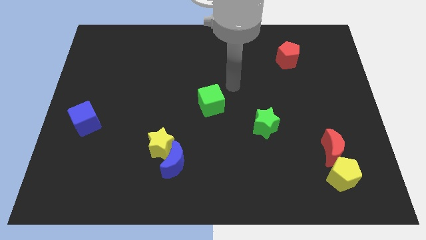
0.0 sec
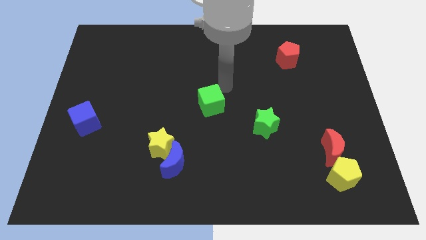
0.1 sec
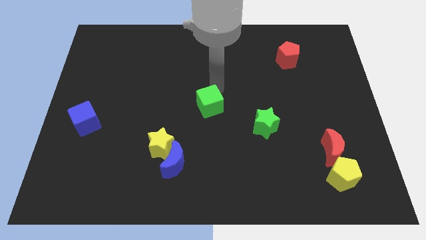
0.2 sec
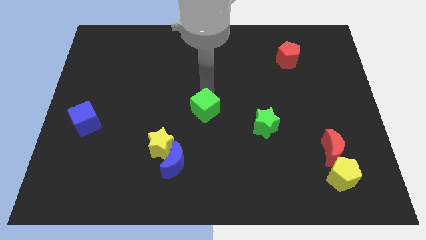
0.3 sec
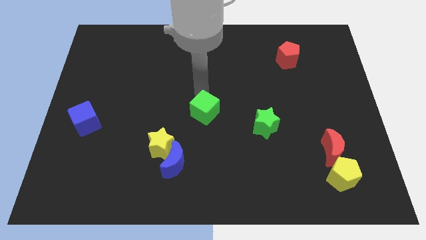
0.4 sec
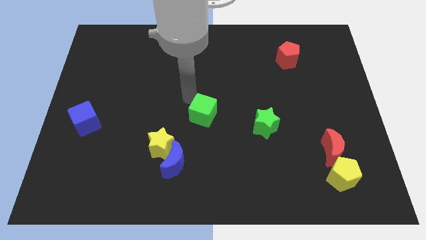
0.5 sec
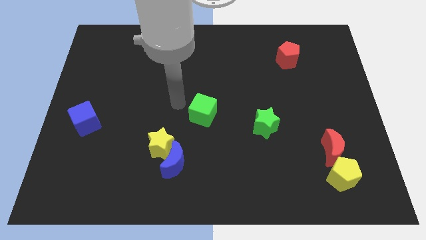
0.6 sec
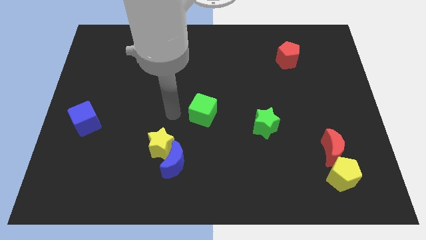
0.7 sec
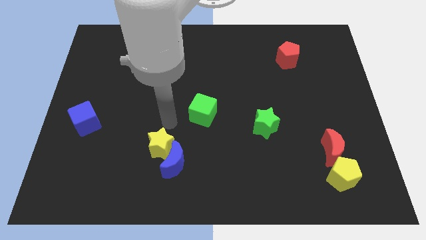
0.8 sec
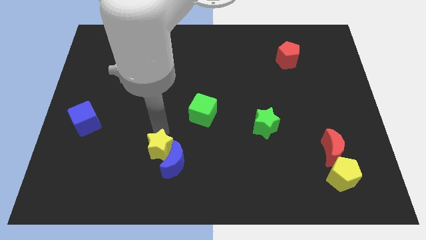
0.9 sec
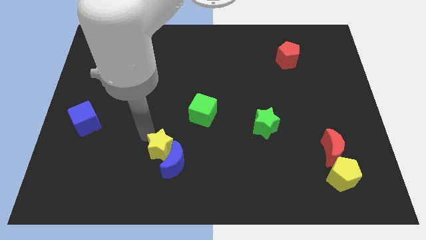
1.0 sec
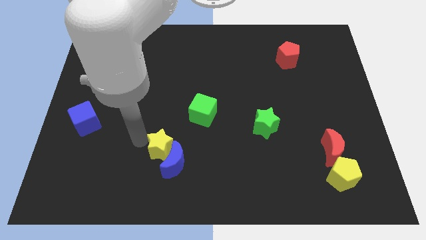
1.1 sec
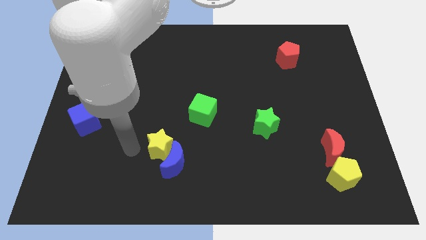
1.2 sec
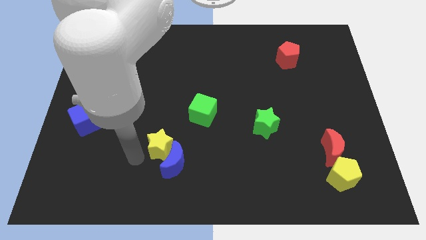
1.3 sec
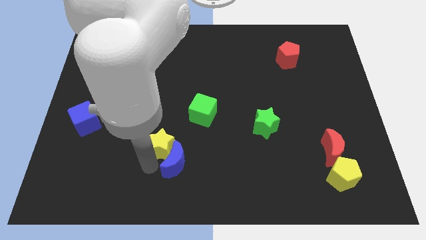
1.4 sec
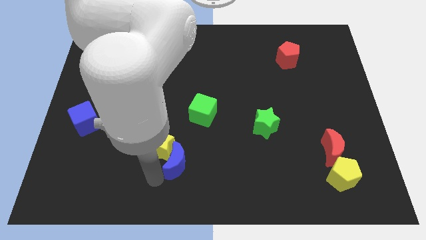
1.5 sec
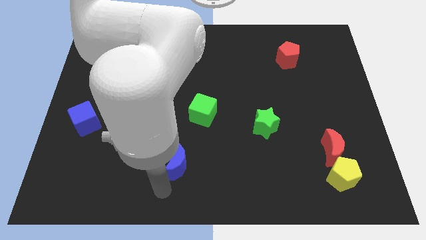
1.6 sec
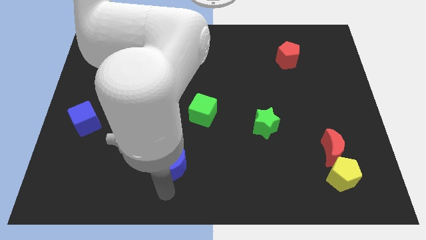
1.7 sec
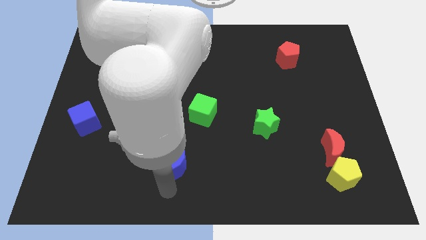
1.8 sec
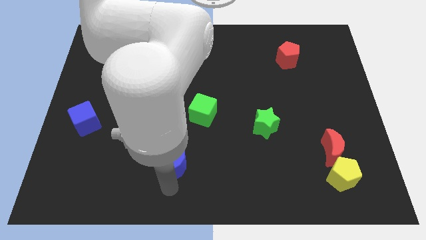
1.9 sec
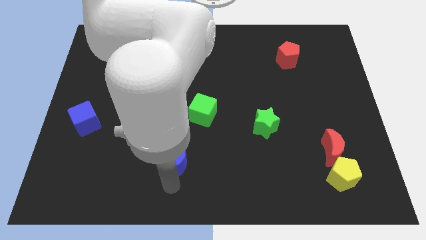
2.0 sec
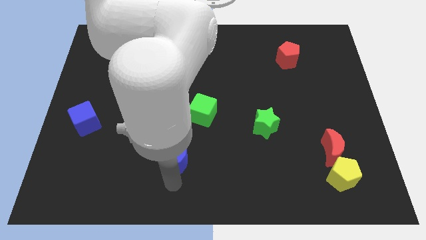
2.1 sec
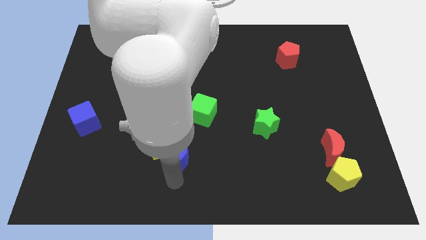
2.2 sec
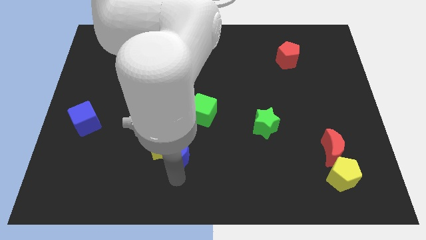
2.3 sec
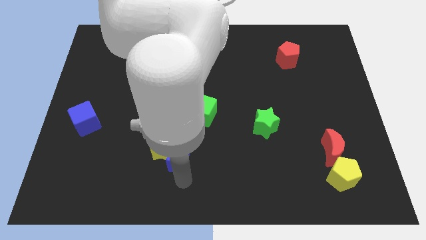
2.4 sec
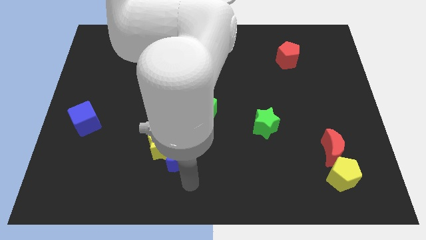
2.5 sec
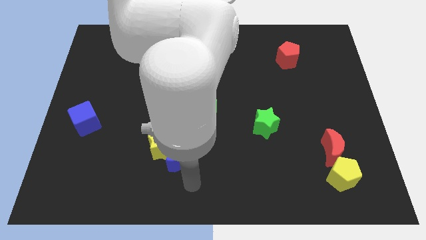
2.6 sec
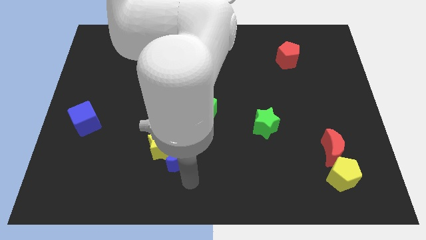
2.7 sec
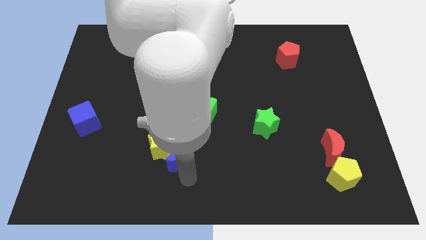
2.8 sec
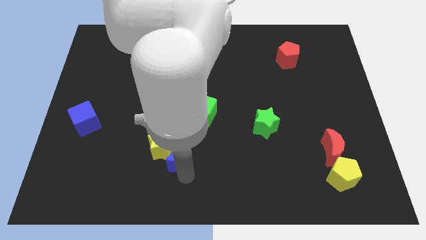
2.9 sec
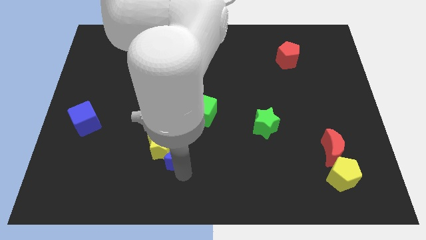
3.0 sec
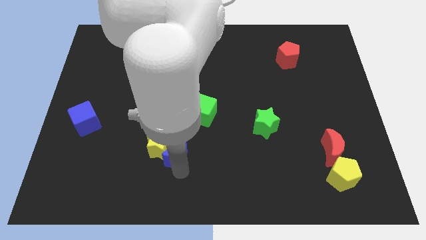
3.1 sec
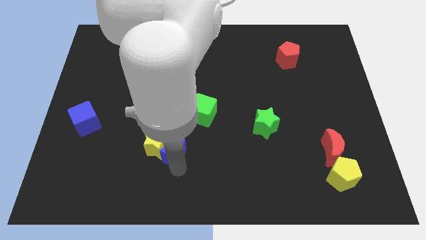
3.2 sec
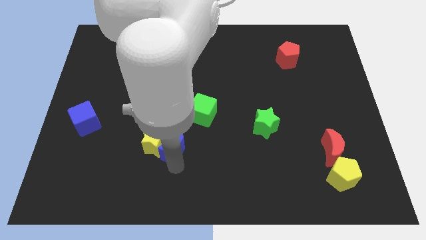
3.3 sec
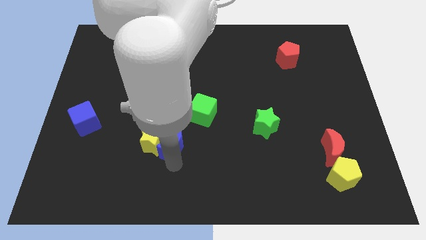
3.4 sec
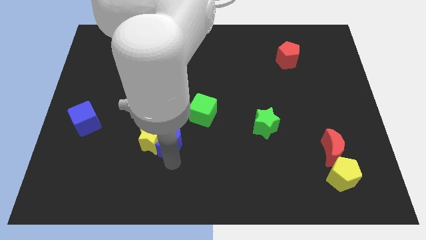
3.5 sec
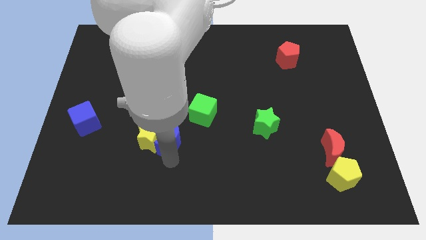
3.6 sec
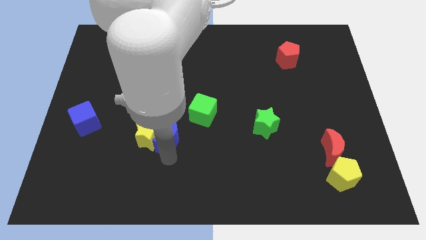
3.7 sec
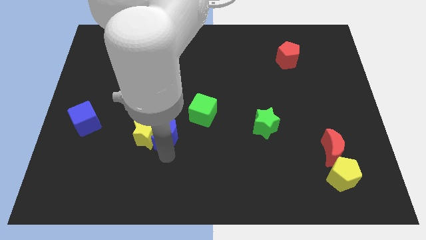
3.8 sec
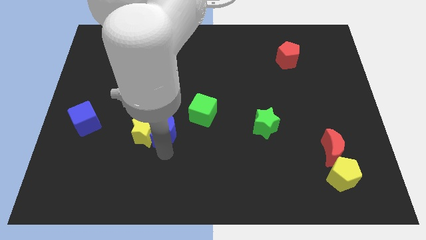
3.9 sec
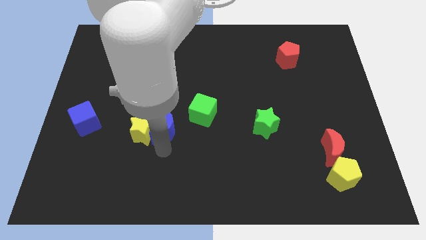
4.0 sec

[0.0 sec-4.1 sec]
slide the blue moon up and left a little bit

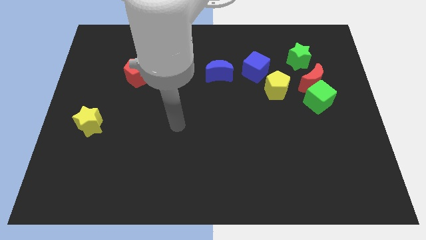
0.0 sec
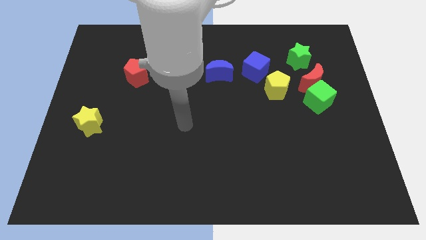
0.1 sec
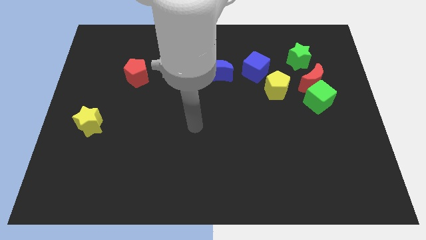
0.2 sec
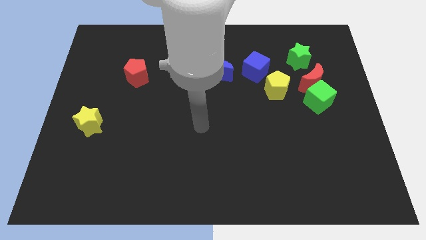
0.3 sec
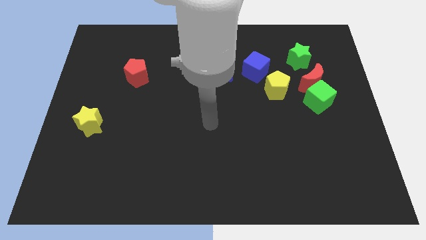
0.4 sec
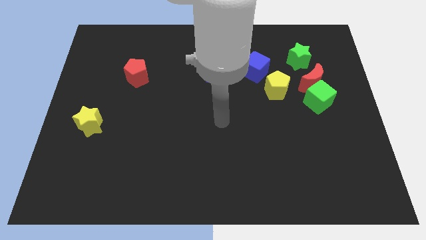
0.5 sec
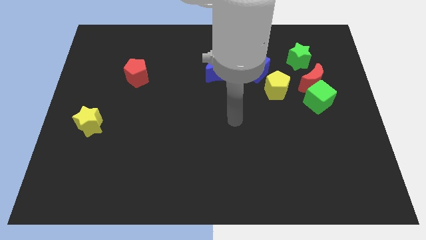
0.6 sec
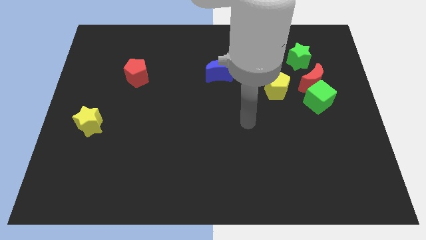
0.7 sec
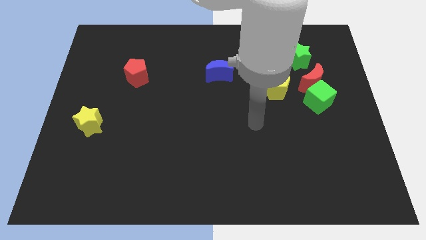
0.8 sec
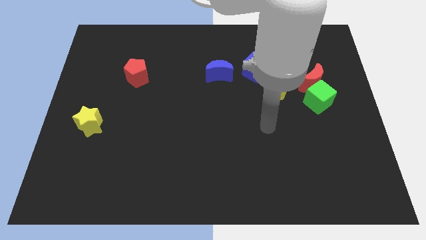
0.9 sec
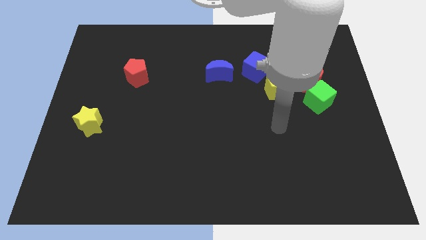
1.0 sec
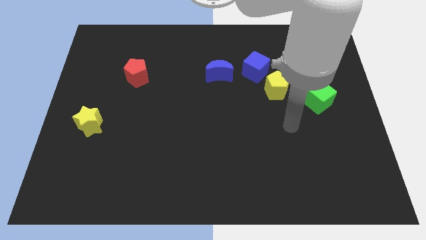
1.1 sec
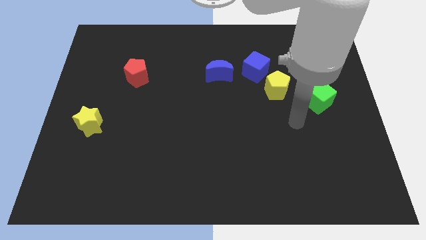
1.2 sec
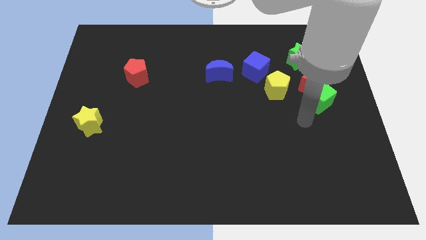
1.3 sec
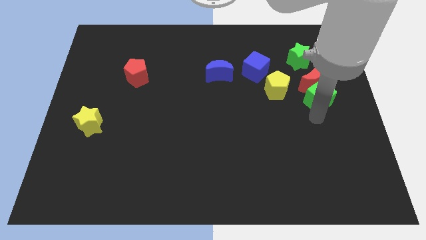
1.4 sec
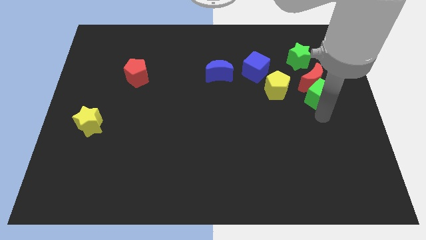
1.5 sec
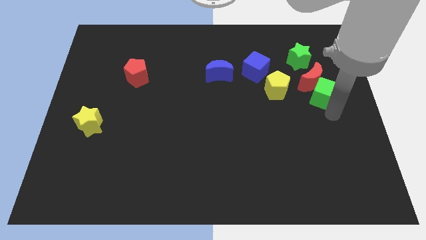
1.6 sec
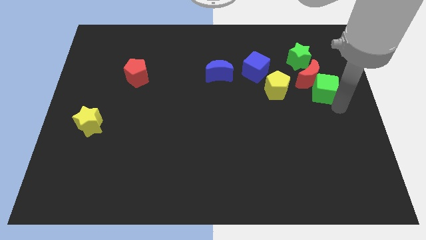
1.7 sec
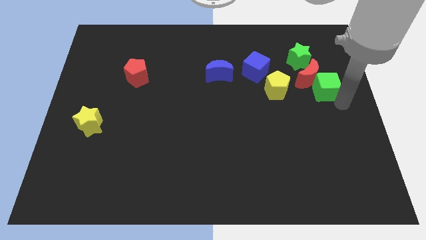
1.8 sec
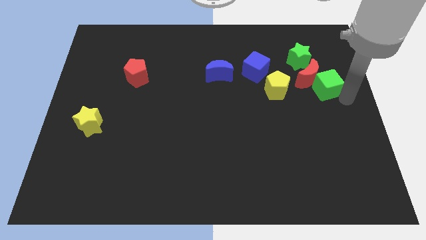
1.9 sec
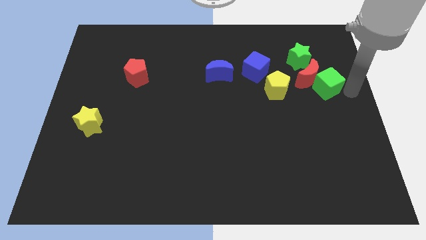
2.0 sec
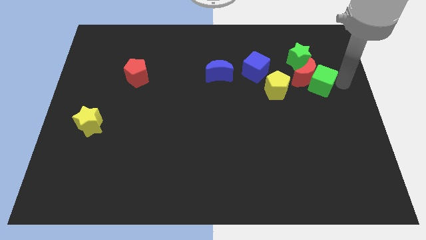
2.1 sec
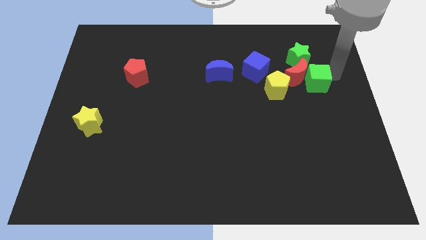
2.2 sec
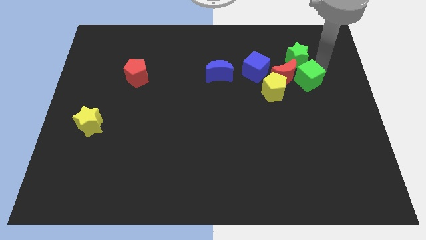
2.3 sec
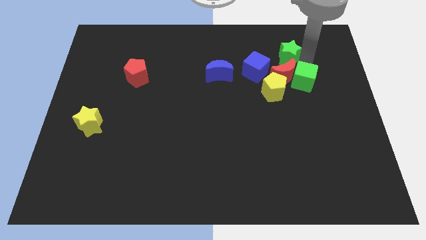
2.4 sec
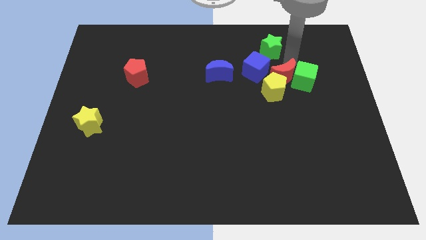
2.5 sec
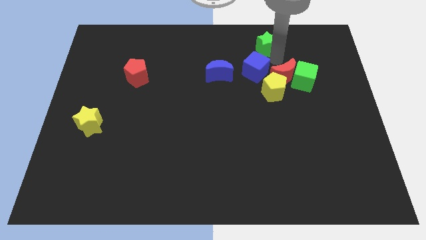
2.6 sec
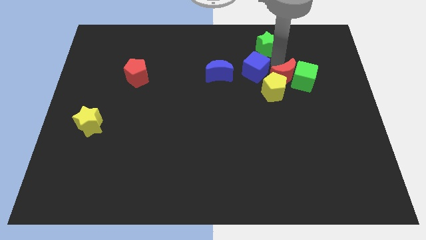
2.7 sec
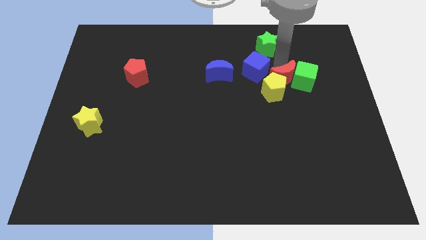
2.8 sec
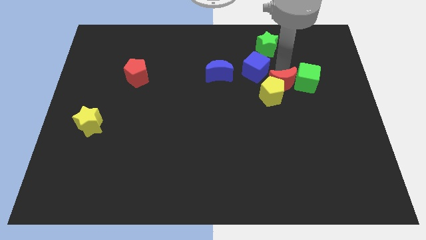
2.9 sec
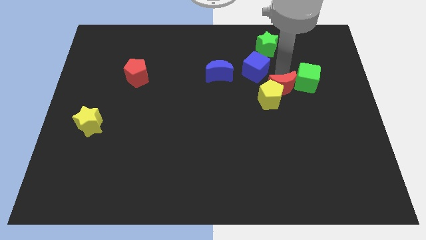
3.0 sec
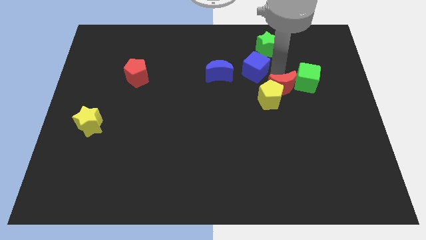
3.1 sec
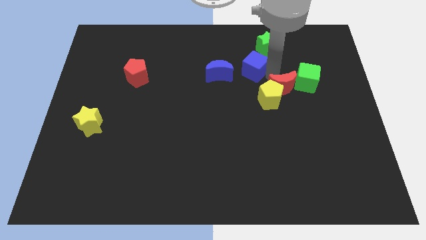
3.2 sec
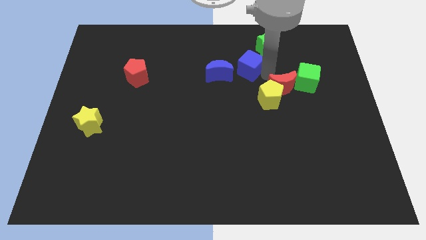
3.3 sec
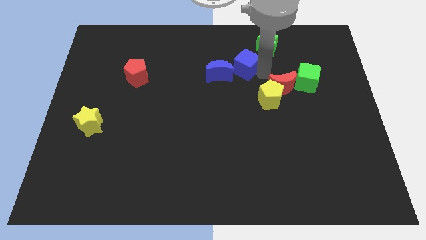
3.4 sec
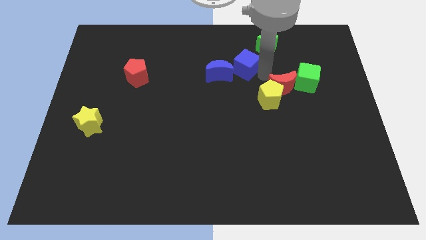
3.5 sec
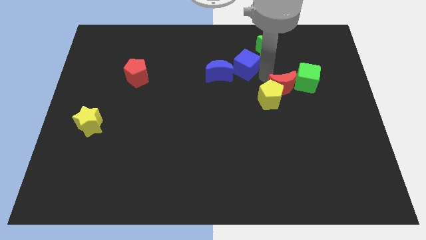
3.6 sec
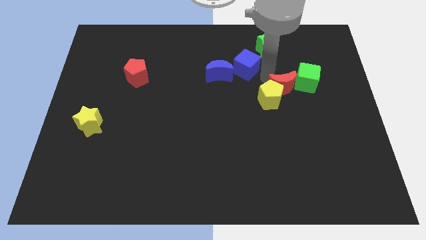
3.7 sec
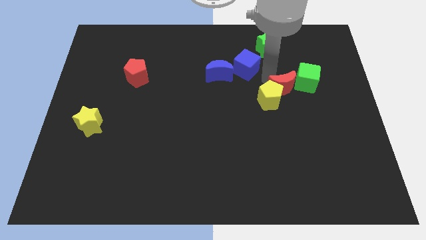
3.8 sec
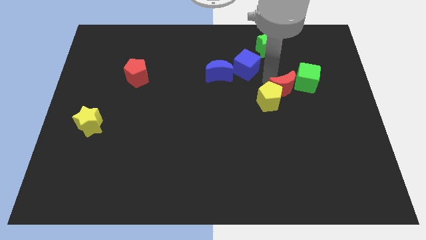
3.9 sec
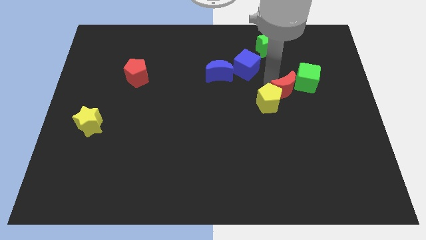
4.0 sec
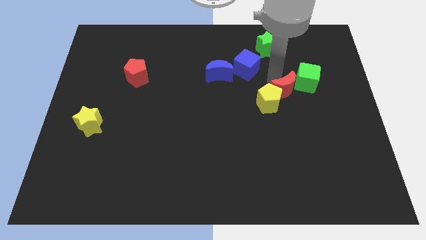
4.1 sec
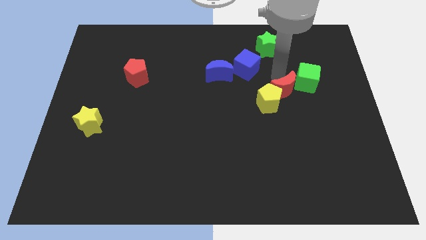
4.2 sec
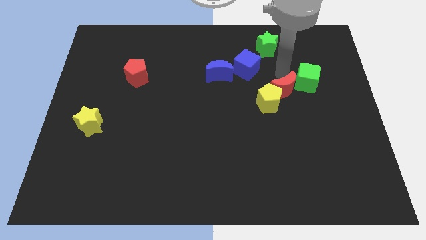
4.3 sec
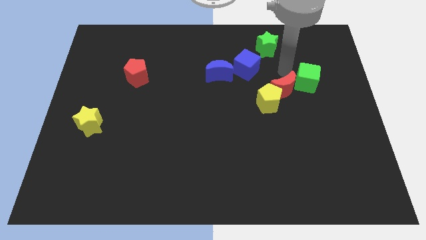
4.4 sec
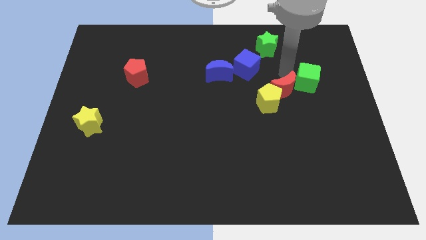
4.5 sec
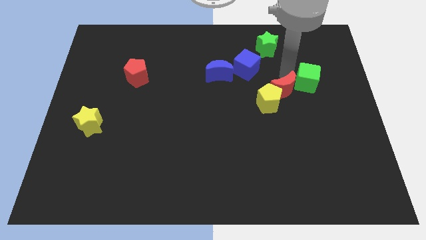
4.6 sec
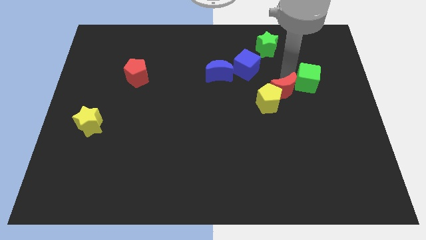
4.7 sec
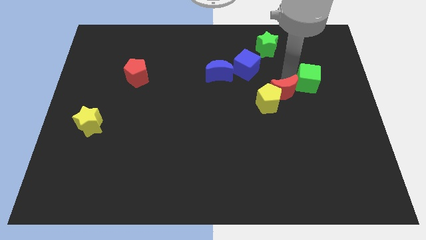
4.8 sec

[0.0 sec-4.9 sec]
push the red moon slightly down and left
